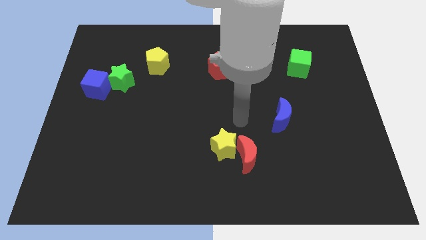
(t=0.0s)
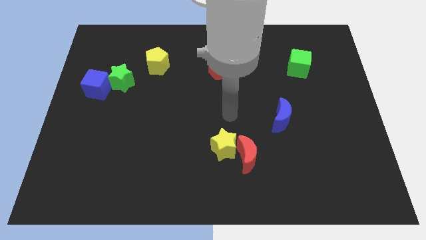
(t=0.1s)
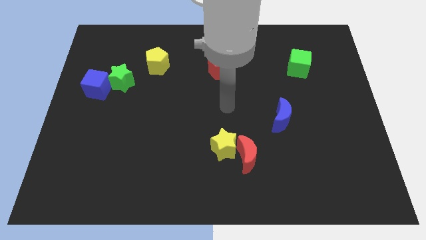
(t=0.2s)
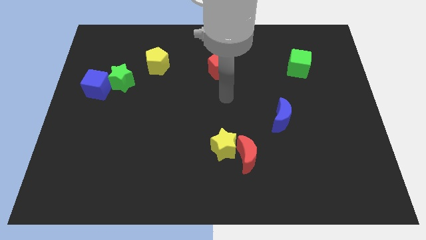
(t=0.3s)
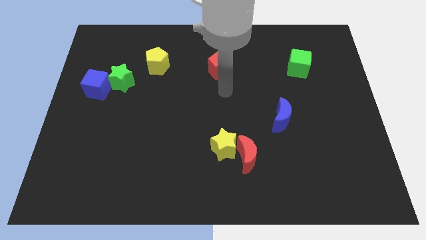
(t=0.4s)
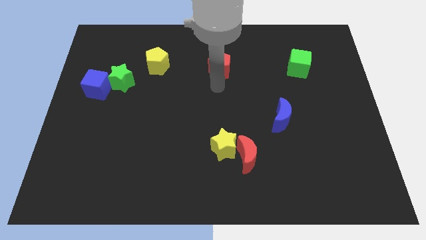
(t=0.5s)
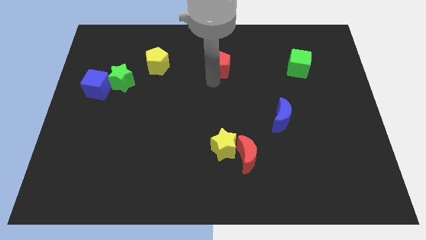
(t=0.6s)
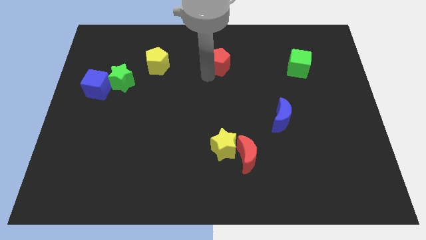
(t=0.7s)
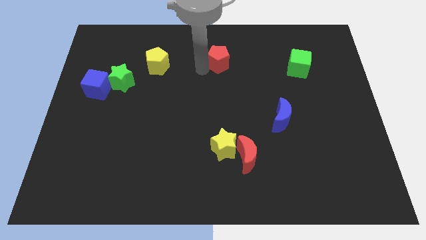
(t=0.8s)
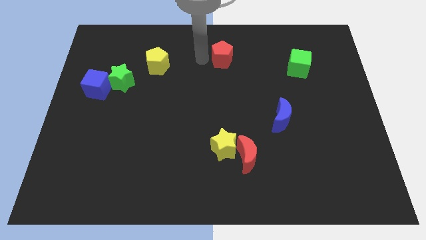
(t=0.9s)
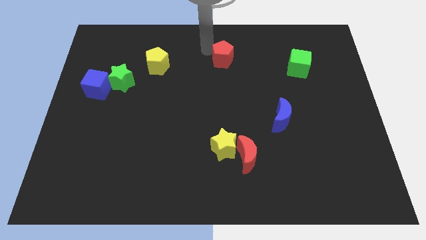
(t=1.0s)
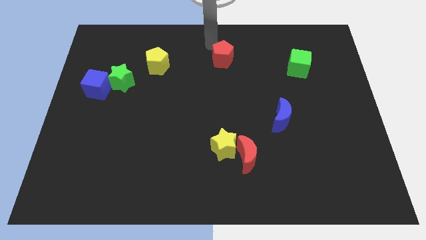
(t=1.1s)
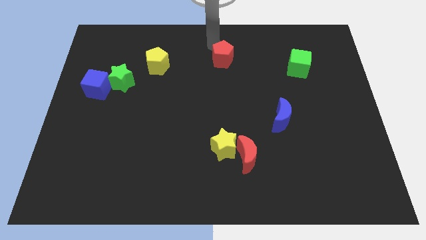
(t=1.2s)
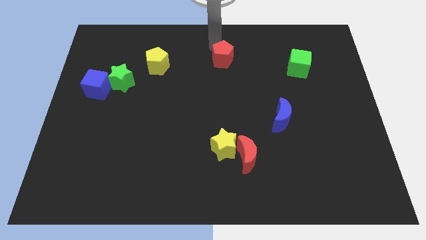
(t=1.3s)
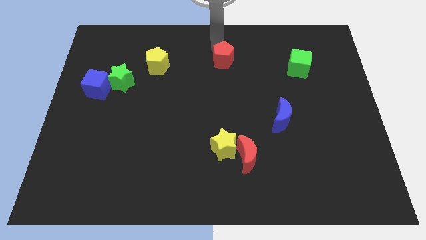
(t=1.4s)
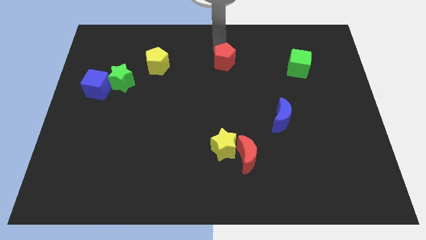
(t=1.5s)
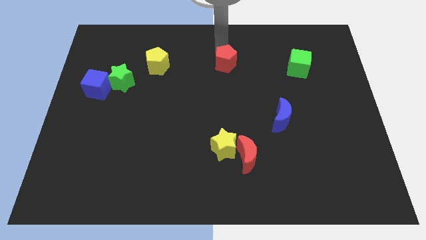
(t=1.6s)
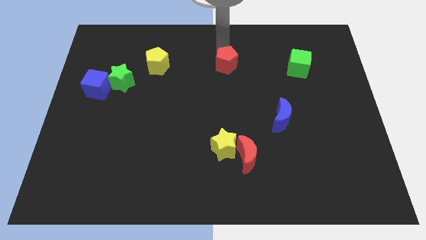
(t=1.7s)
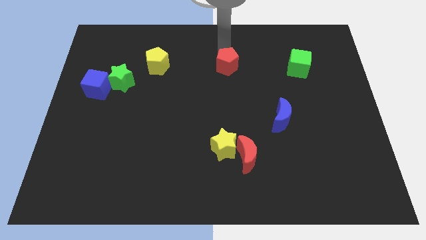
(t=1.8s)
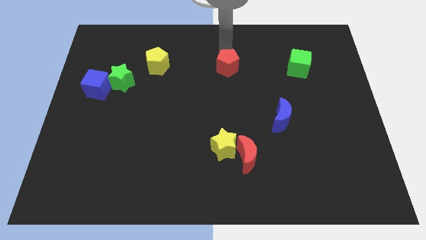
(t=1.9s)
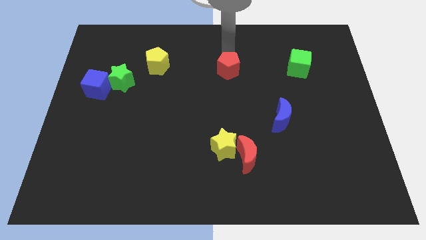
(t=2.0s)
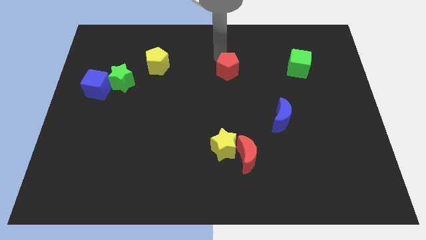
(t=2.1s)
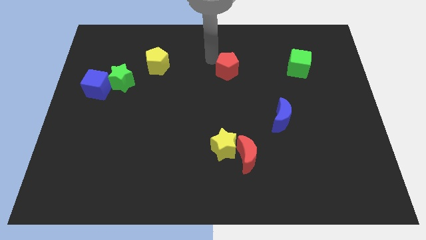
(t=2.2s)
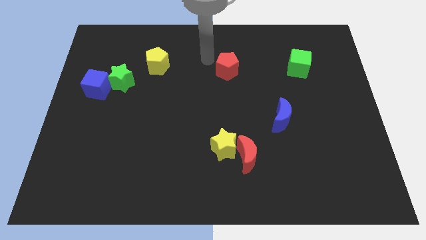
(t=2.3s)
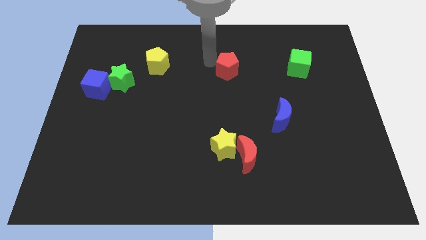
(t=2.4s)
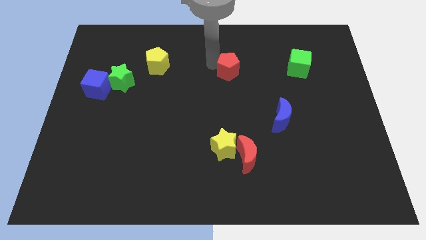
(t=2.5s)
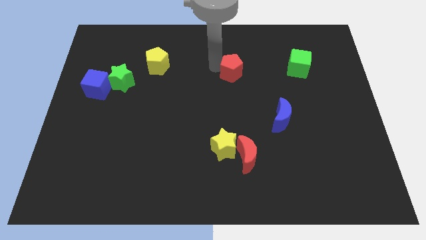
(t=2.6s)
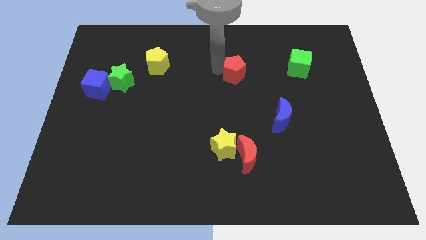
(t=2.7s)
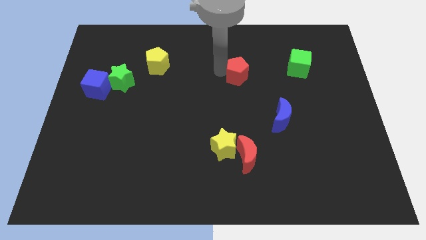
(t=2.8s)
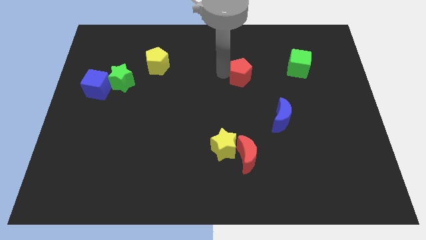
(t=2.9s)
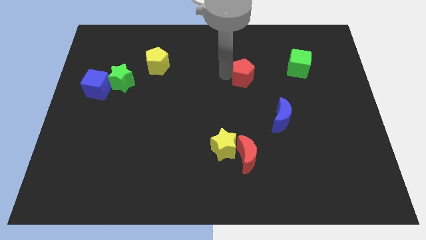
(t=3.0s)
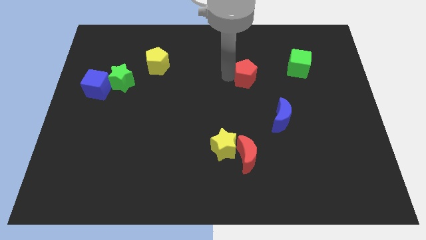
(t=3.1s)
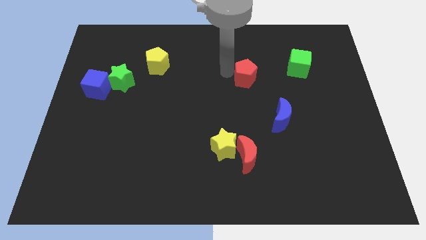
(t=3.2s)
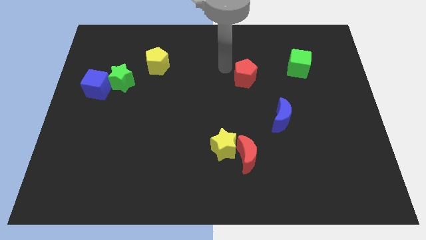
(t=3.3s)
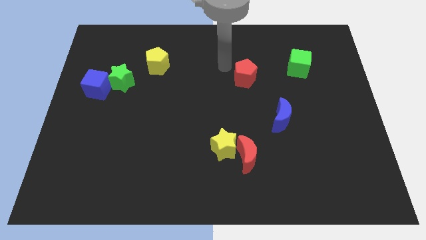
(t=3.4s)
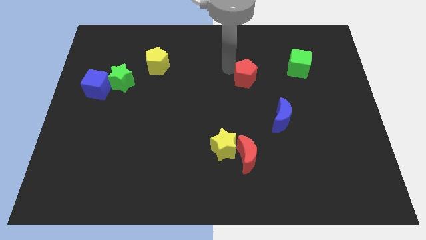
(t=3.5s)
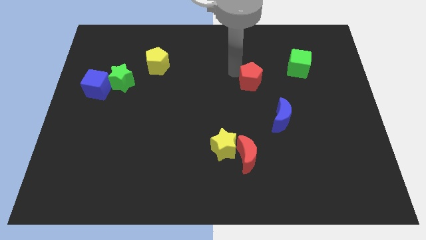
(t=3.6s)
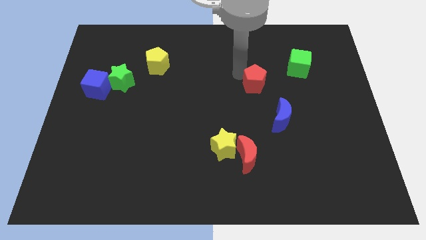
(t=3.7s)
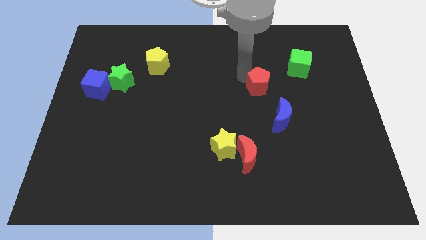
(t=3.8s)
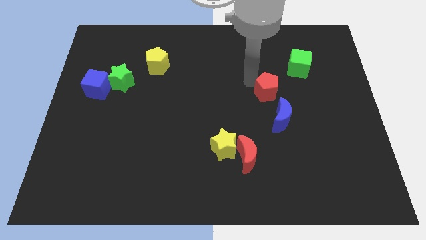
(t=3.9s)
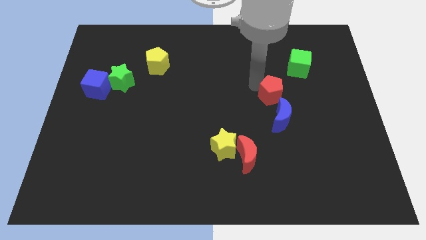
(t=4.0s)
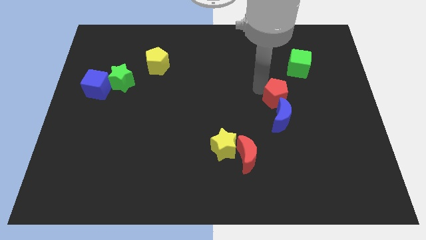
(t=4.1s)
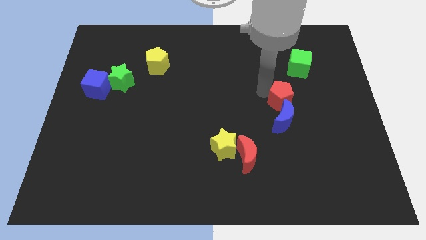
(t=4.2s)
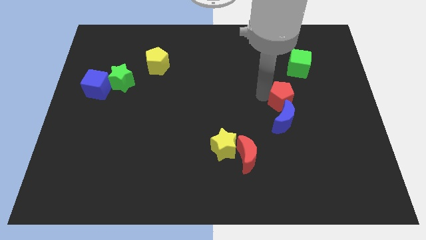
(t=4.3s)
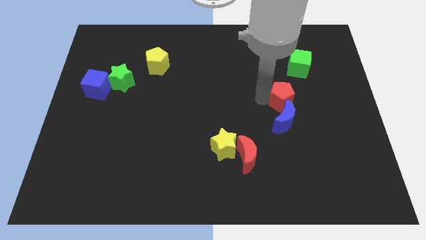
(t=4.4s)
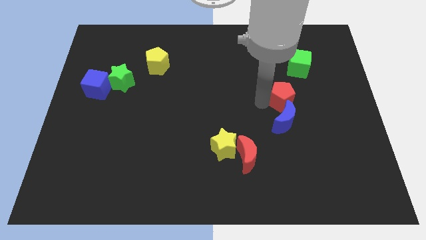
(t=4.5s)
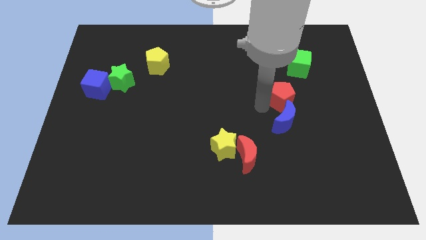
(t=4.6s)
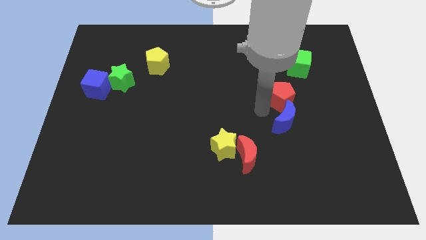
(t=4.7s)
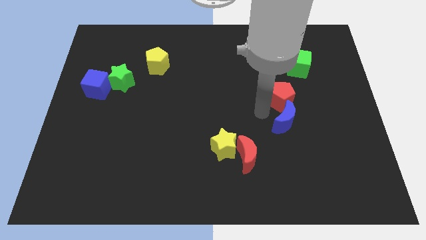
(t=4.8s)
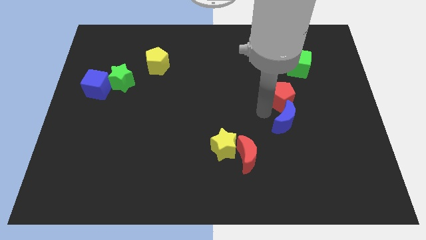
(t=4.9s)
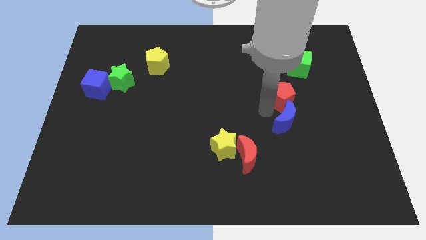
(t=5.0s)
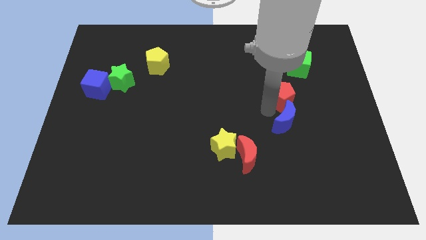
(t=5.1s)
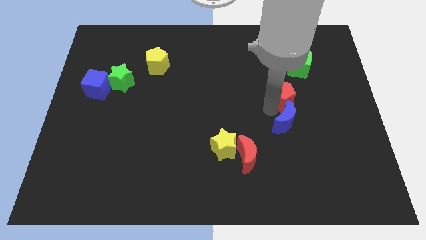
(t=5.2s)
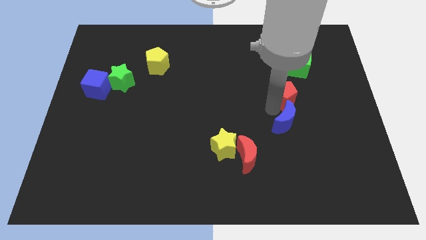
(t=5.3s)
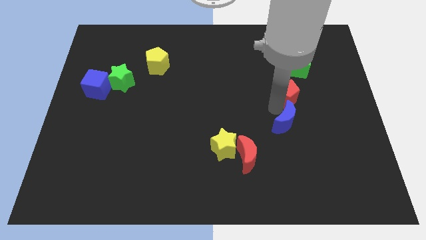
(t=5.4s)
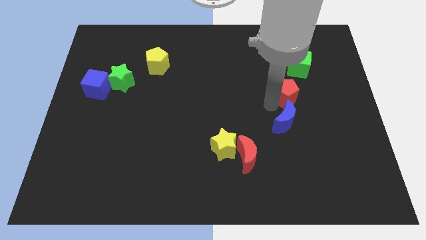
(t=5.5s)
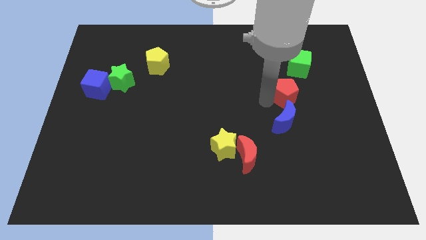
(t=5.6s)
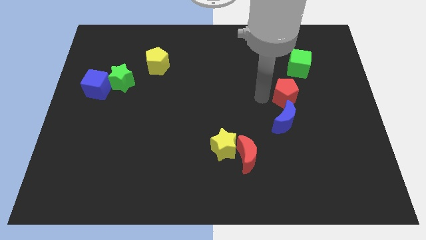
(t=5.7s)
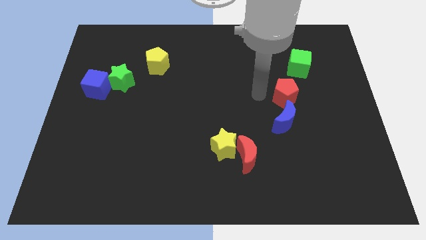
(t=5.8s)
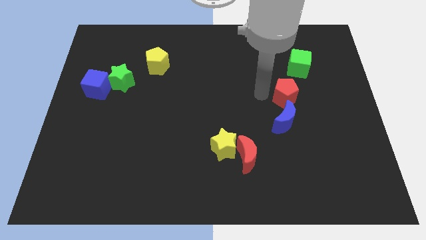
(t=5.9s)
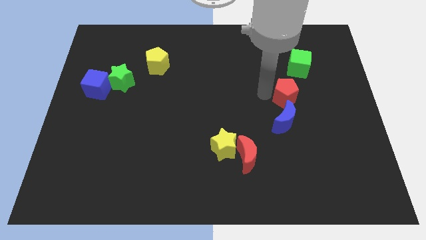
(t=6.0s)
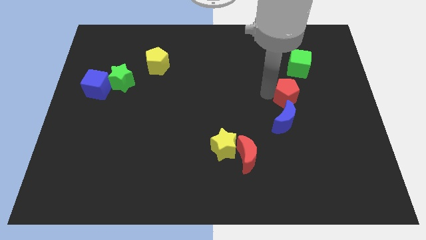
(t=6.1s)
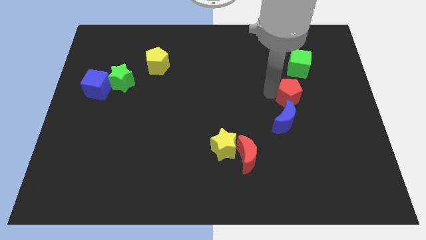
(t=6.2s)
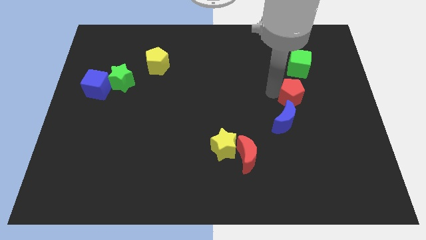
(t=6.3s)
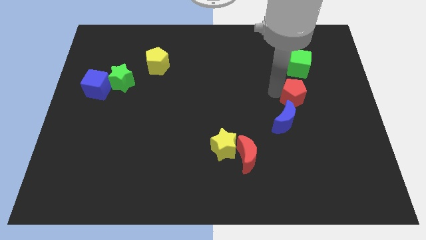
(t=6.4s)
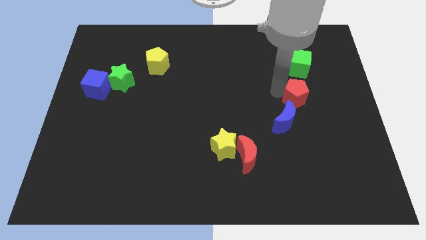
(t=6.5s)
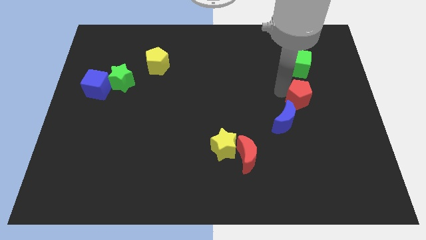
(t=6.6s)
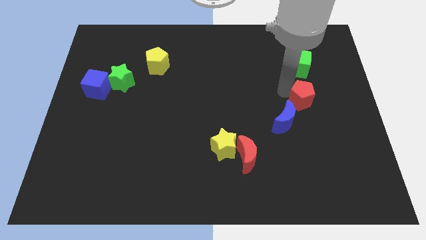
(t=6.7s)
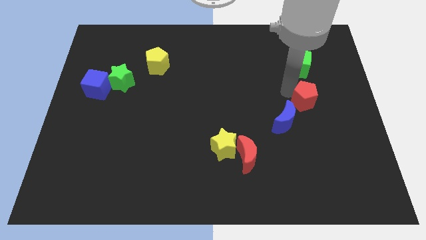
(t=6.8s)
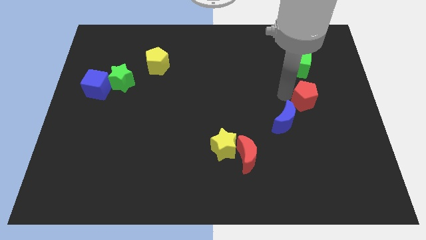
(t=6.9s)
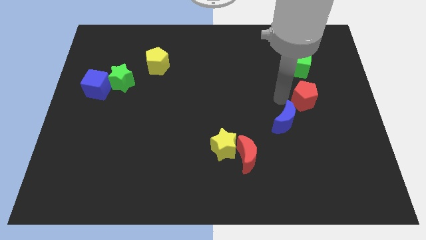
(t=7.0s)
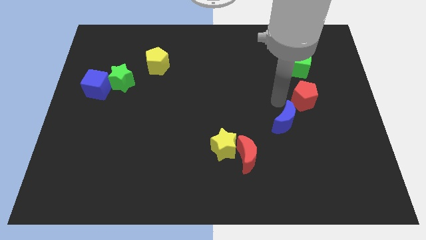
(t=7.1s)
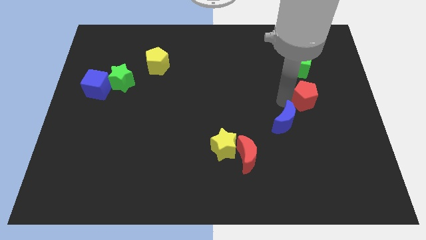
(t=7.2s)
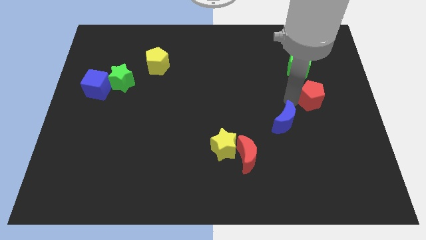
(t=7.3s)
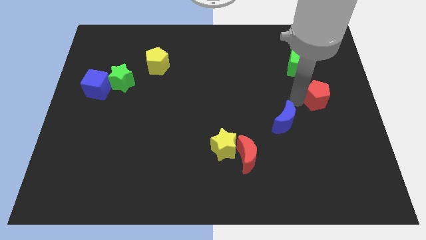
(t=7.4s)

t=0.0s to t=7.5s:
slide the red pentagon to the right side
